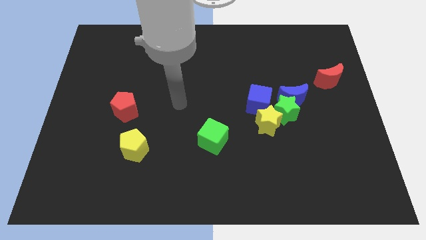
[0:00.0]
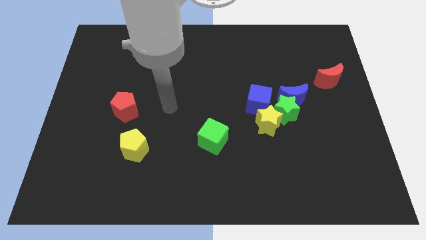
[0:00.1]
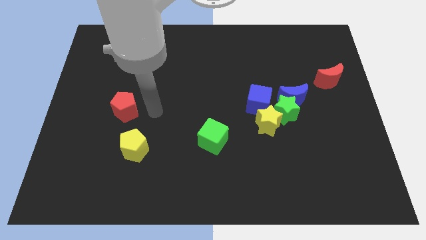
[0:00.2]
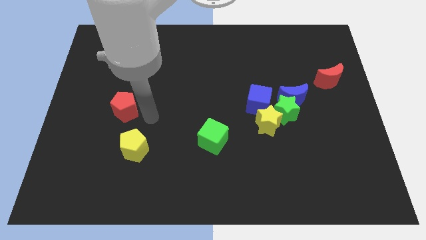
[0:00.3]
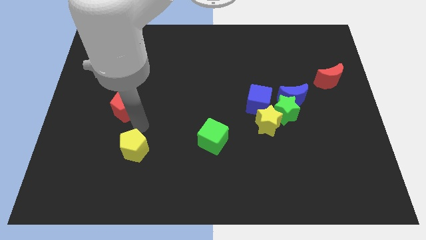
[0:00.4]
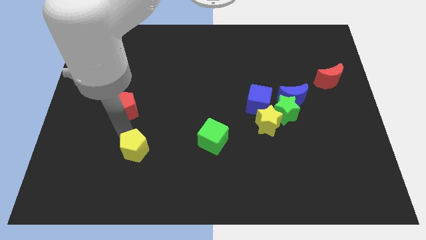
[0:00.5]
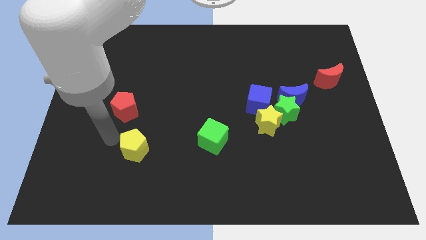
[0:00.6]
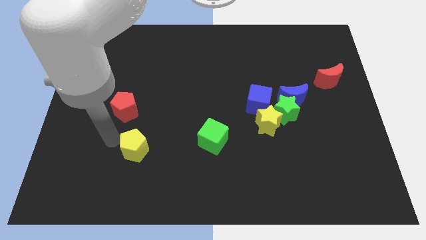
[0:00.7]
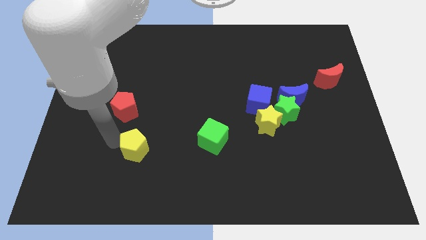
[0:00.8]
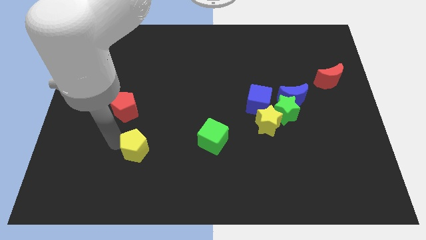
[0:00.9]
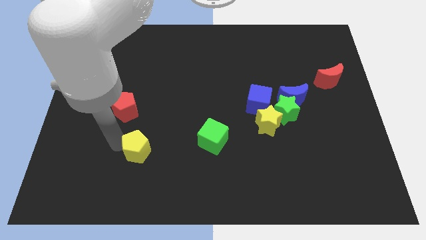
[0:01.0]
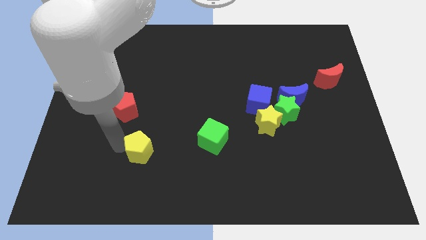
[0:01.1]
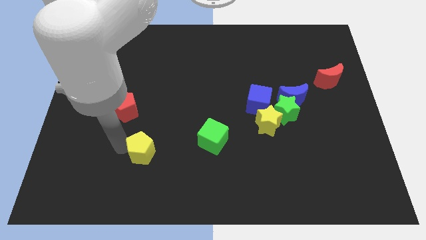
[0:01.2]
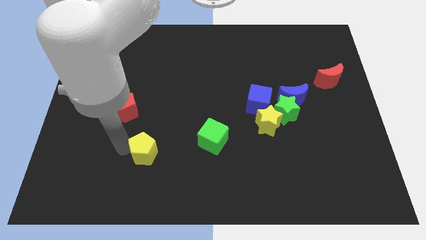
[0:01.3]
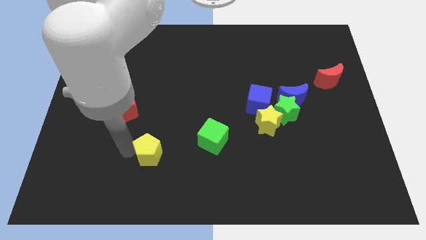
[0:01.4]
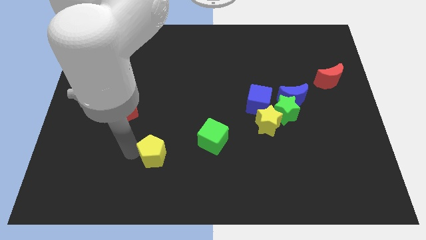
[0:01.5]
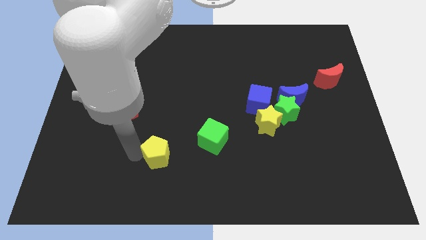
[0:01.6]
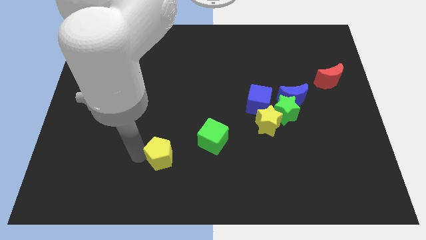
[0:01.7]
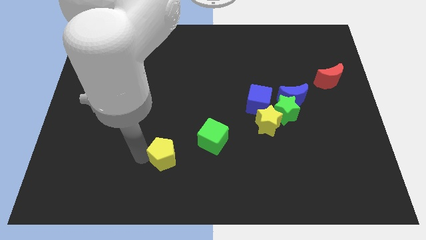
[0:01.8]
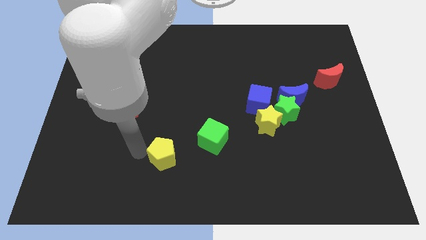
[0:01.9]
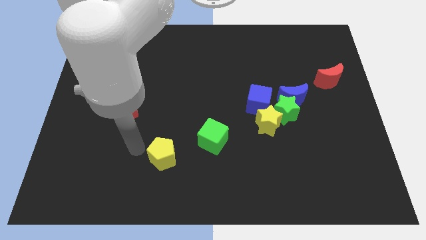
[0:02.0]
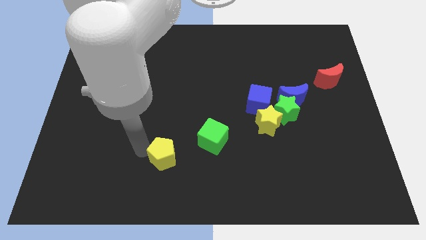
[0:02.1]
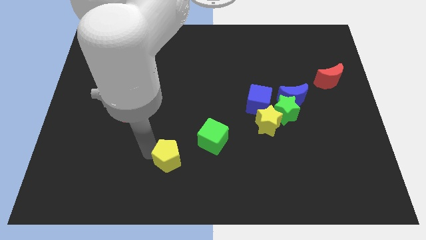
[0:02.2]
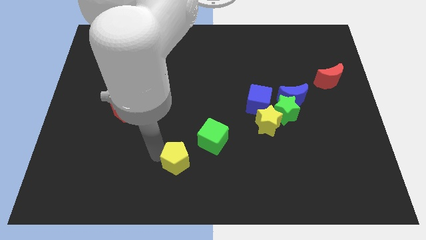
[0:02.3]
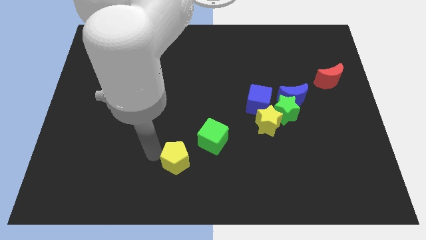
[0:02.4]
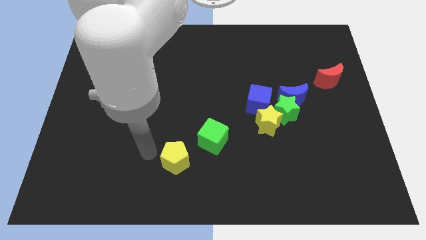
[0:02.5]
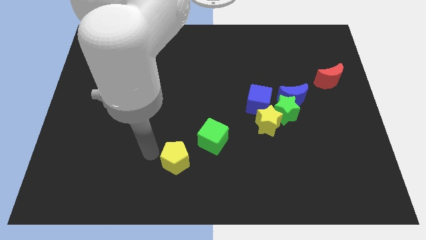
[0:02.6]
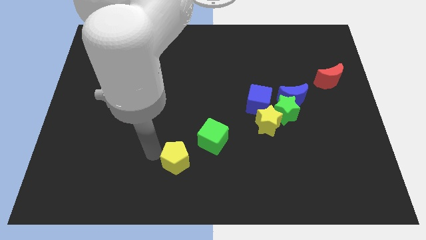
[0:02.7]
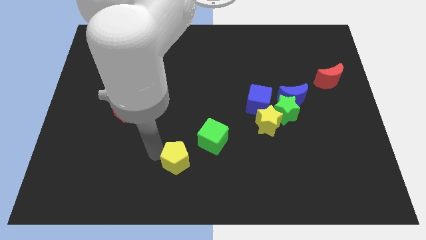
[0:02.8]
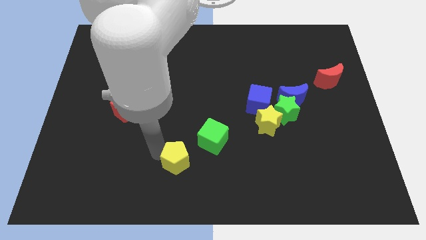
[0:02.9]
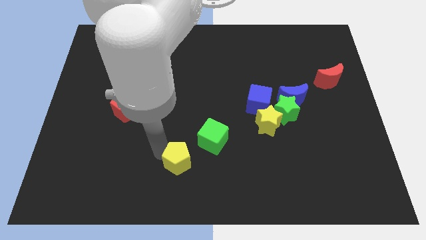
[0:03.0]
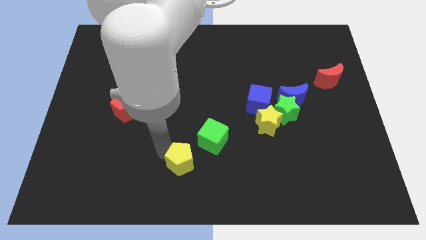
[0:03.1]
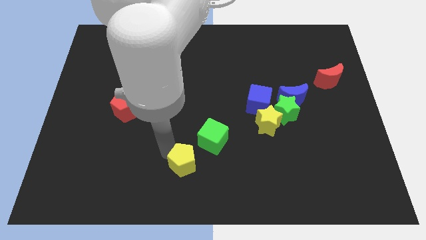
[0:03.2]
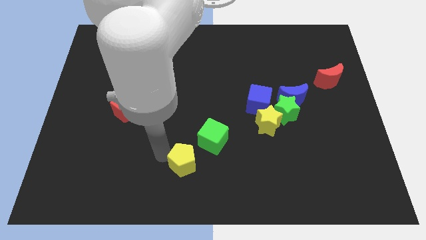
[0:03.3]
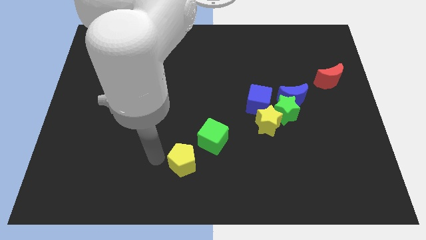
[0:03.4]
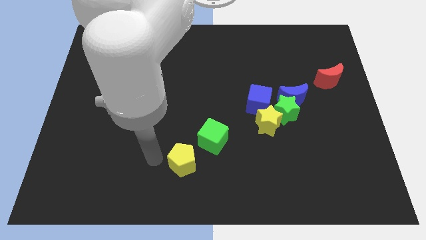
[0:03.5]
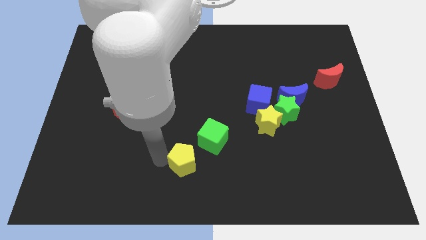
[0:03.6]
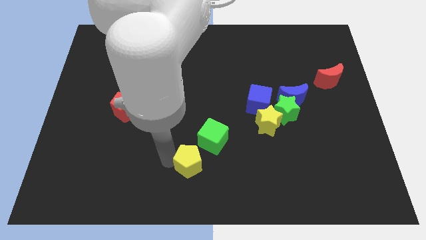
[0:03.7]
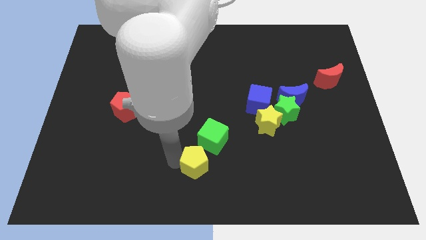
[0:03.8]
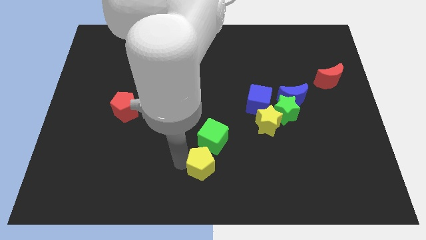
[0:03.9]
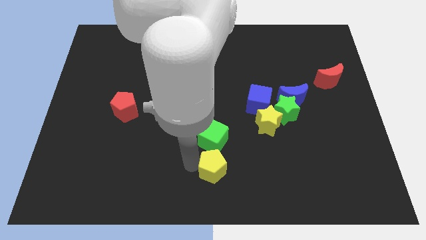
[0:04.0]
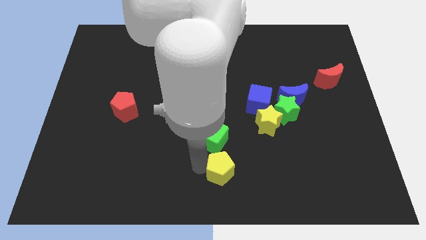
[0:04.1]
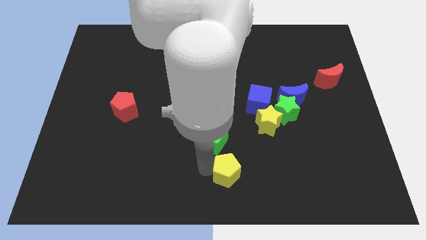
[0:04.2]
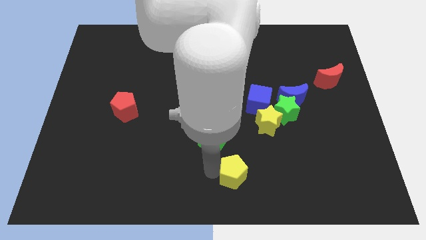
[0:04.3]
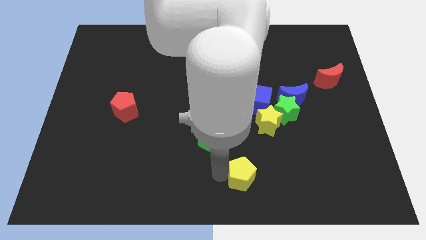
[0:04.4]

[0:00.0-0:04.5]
push the yellow pentagon right

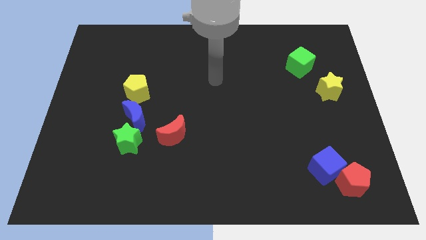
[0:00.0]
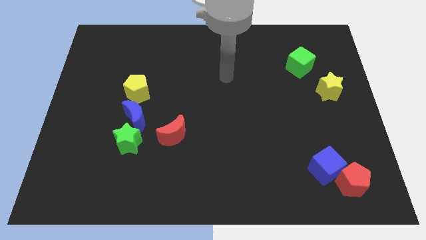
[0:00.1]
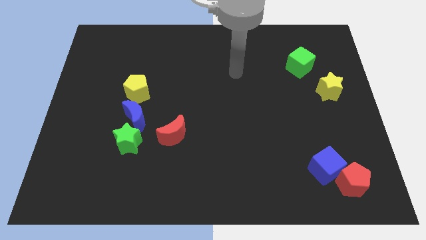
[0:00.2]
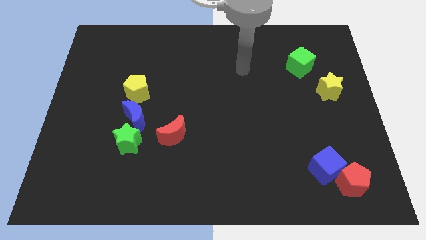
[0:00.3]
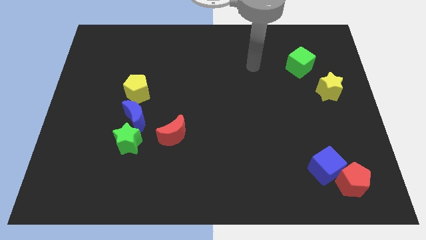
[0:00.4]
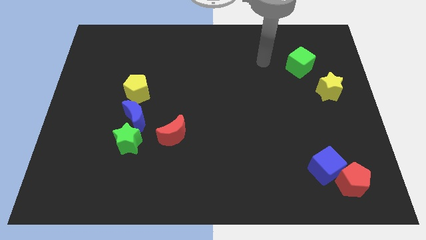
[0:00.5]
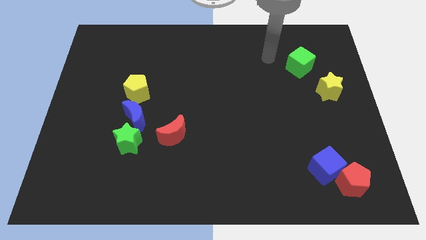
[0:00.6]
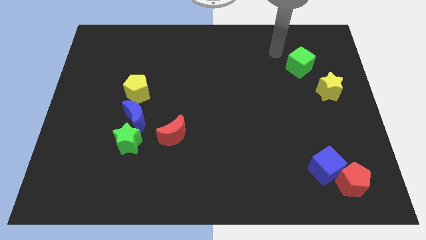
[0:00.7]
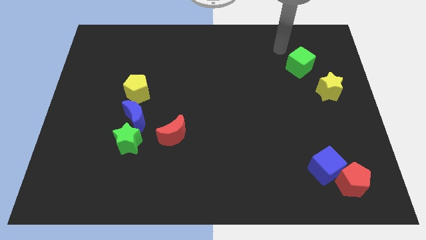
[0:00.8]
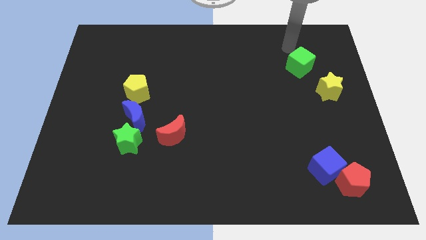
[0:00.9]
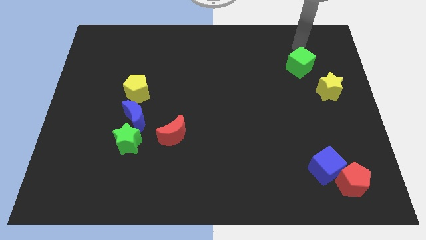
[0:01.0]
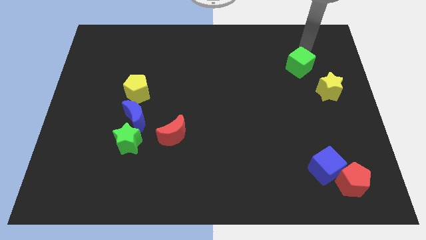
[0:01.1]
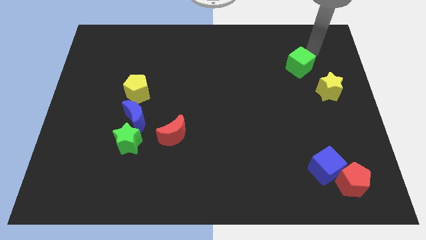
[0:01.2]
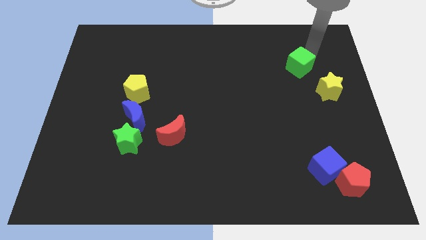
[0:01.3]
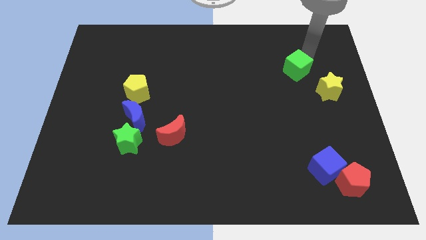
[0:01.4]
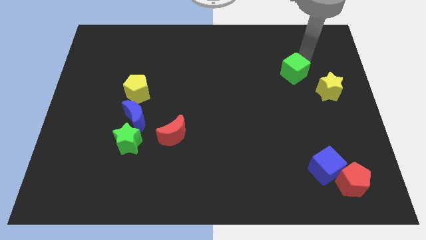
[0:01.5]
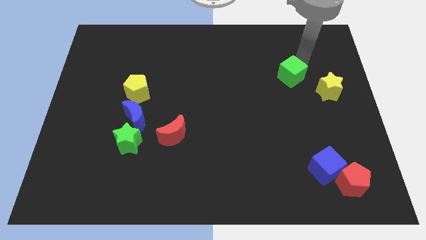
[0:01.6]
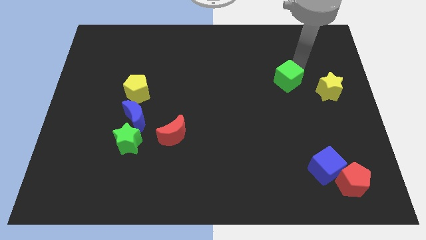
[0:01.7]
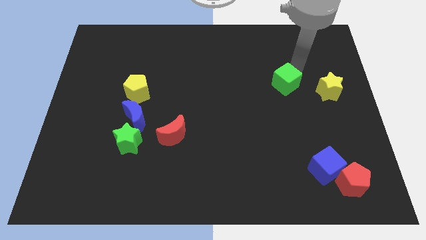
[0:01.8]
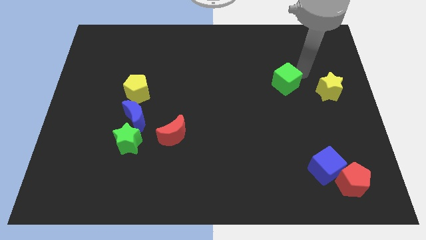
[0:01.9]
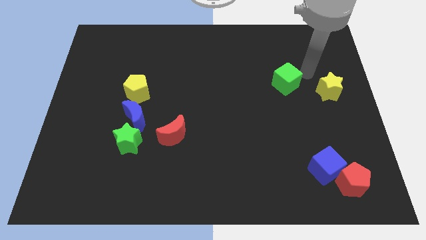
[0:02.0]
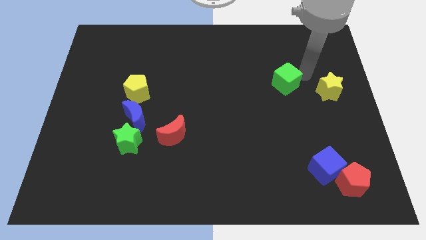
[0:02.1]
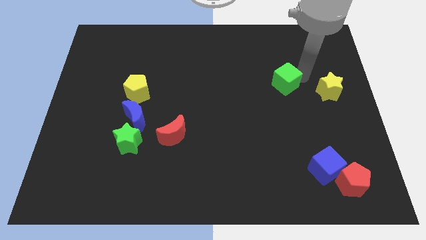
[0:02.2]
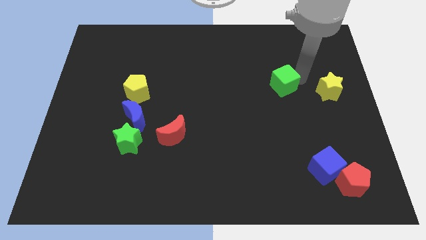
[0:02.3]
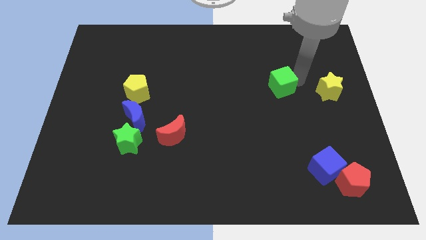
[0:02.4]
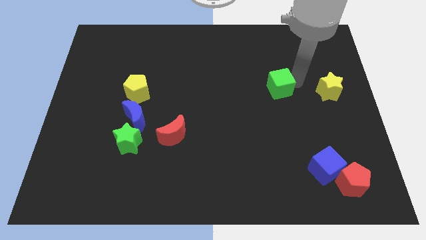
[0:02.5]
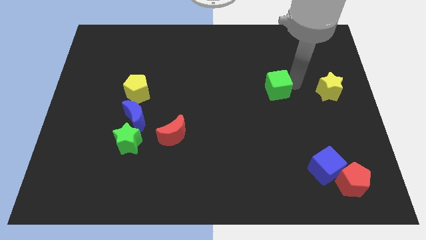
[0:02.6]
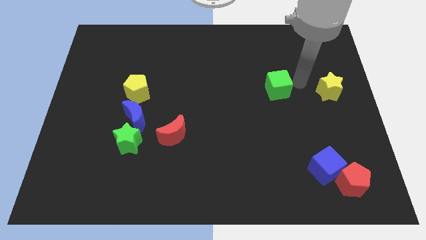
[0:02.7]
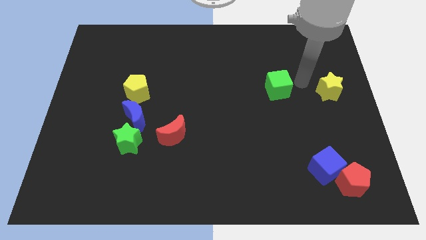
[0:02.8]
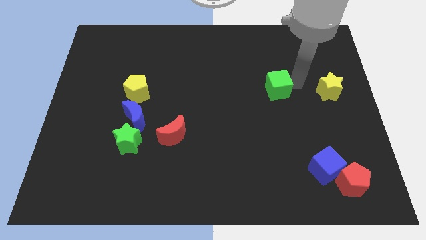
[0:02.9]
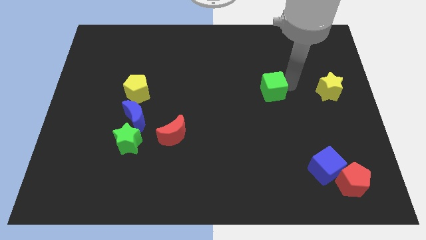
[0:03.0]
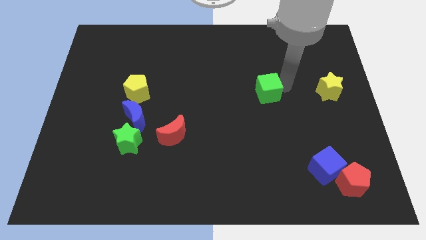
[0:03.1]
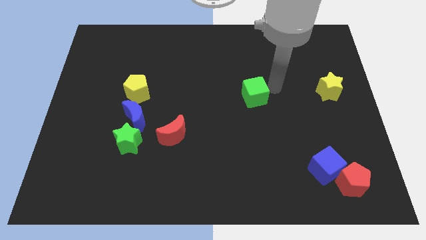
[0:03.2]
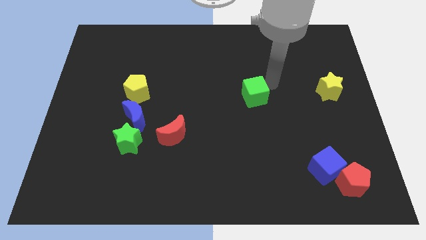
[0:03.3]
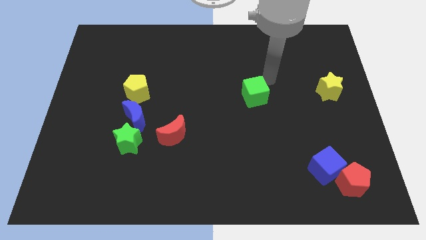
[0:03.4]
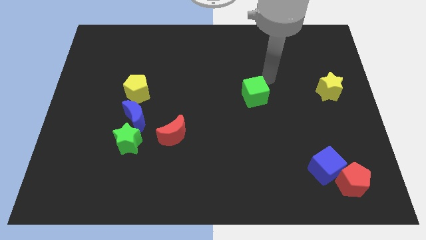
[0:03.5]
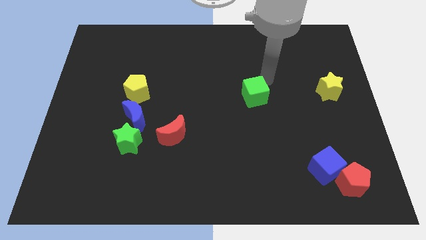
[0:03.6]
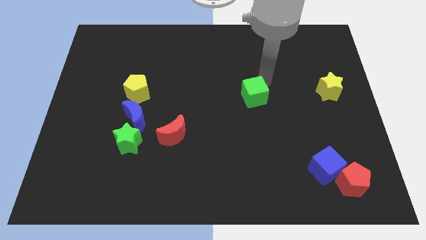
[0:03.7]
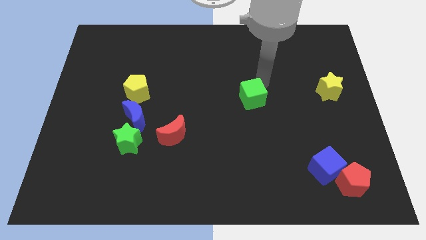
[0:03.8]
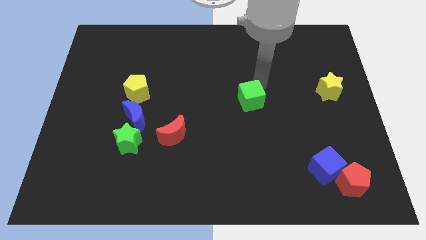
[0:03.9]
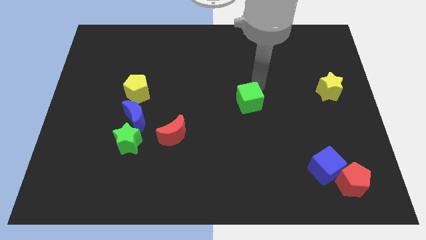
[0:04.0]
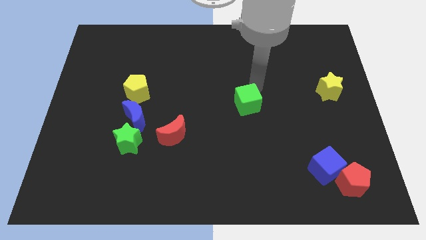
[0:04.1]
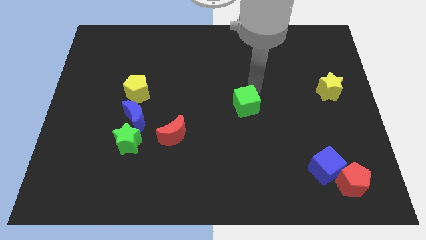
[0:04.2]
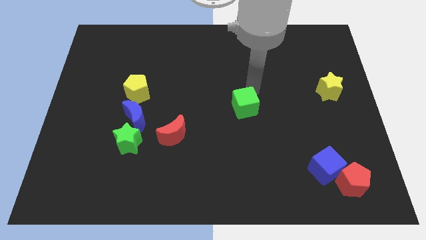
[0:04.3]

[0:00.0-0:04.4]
push the green cube down and to the left
